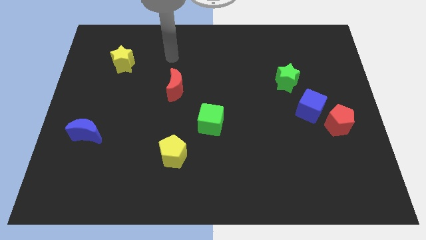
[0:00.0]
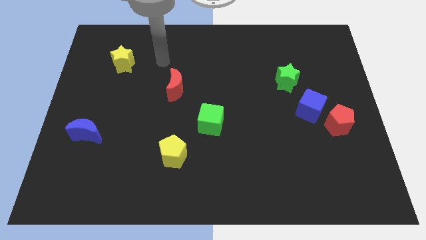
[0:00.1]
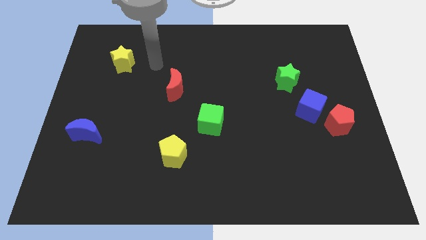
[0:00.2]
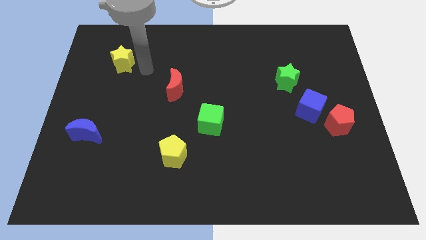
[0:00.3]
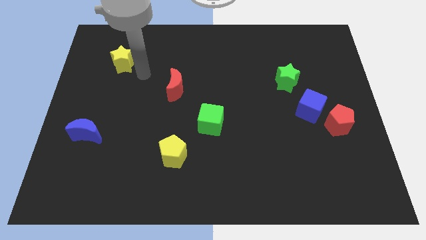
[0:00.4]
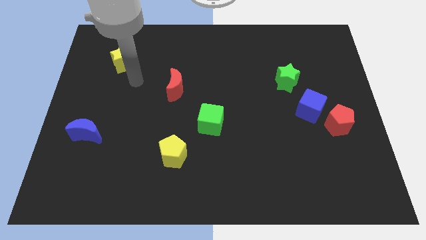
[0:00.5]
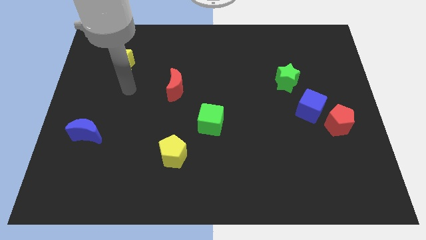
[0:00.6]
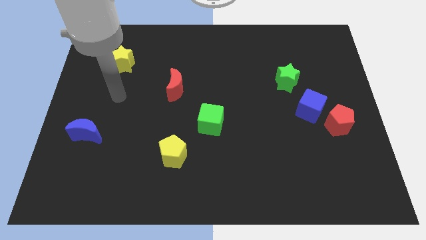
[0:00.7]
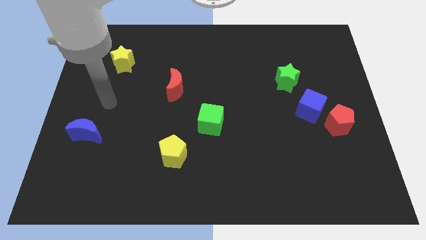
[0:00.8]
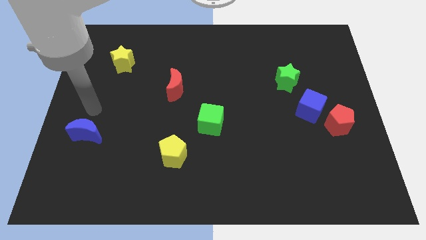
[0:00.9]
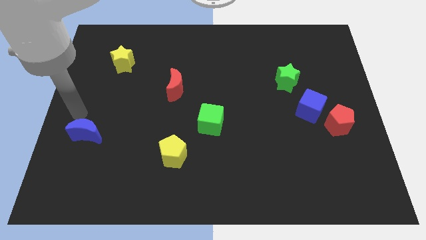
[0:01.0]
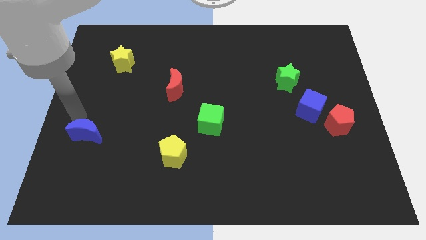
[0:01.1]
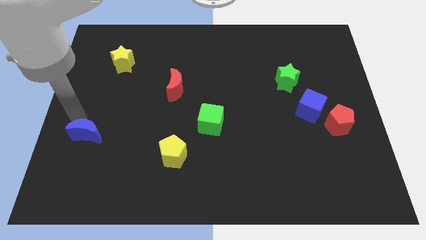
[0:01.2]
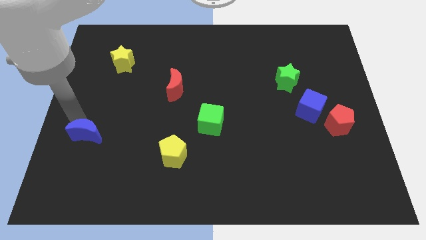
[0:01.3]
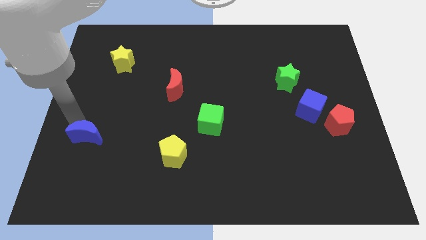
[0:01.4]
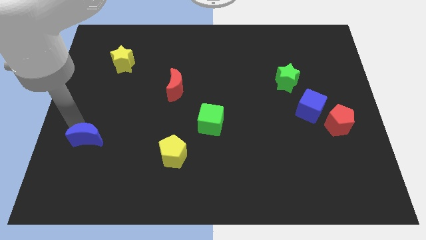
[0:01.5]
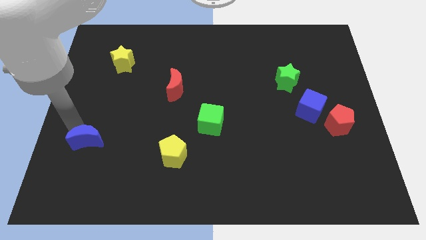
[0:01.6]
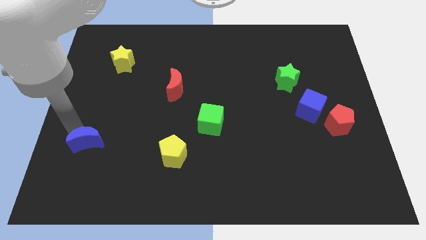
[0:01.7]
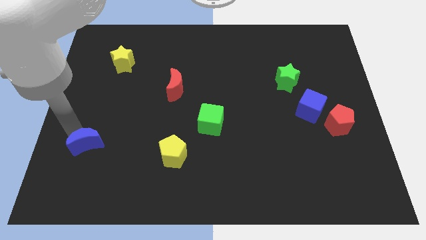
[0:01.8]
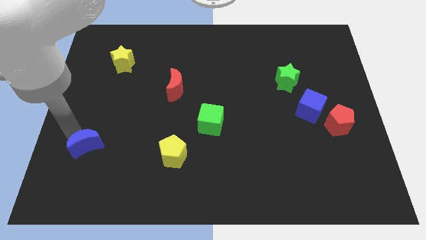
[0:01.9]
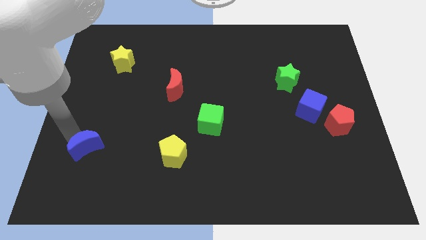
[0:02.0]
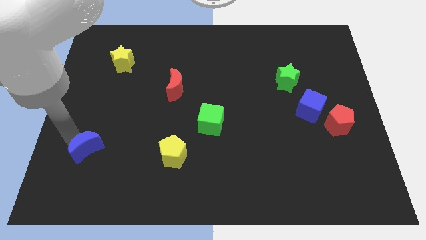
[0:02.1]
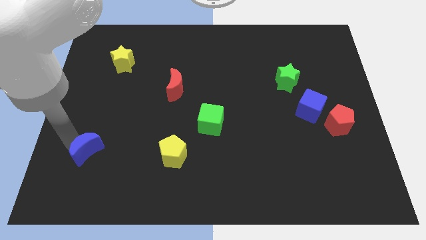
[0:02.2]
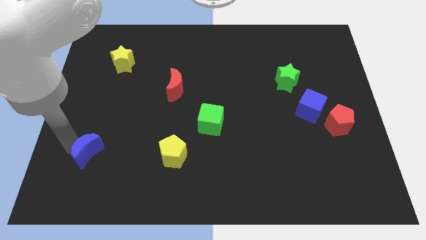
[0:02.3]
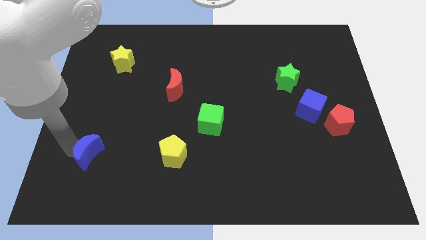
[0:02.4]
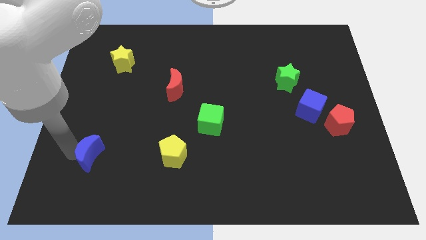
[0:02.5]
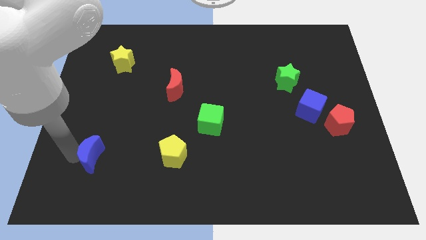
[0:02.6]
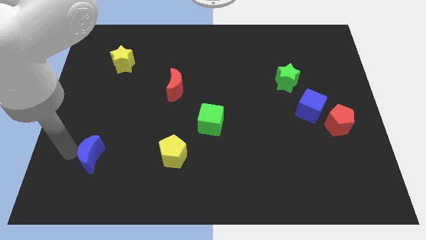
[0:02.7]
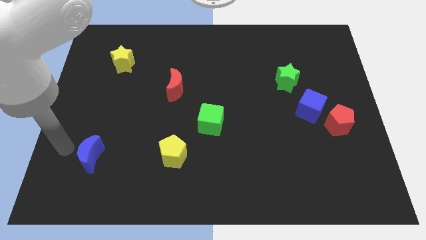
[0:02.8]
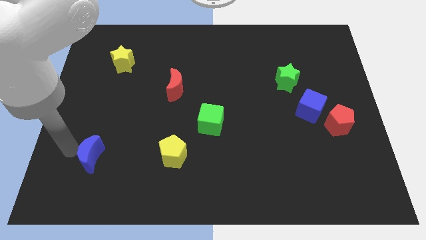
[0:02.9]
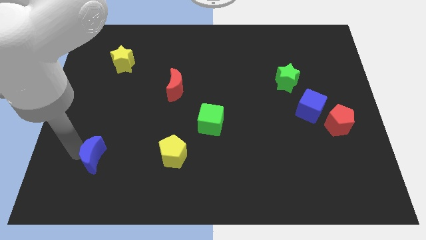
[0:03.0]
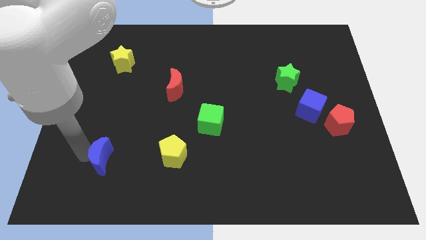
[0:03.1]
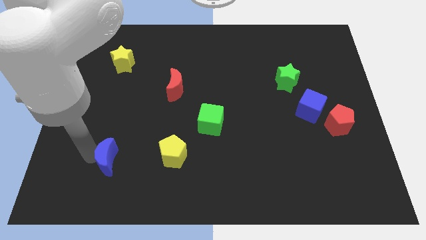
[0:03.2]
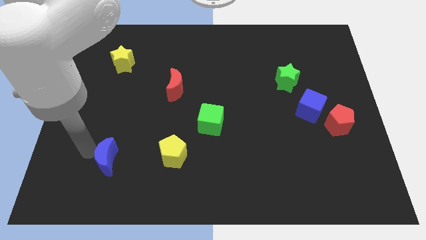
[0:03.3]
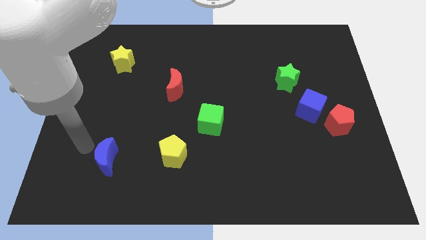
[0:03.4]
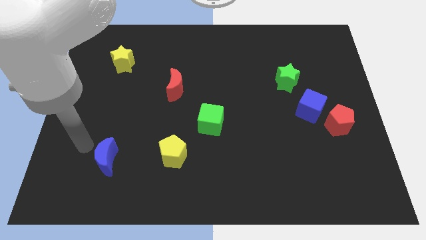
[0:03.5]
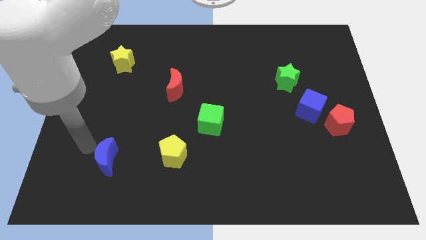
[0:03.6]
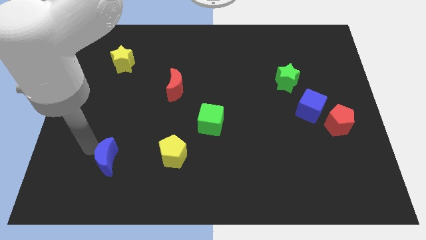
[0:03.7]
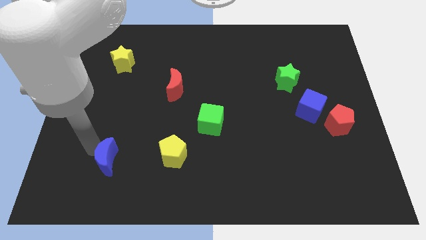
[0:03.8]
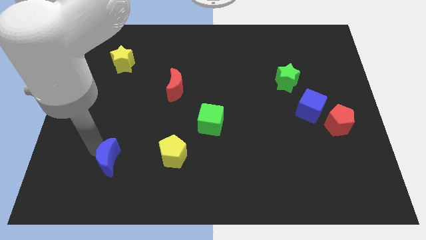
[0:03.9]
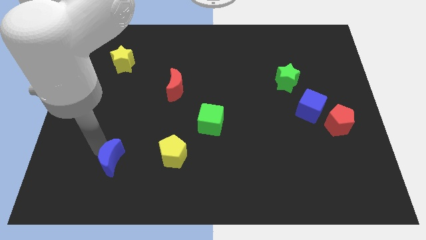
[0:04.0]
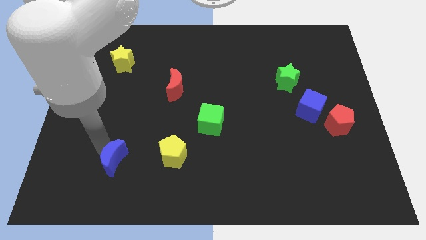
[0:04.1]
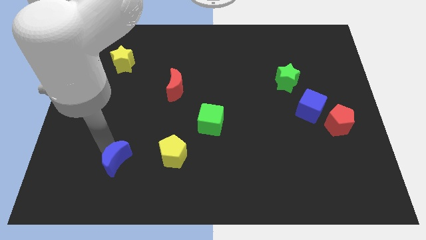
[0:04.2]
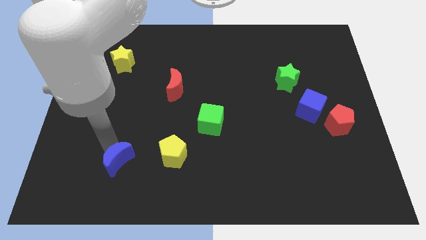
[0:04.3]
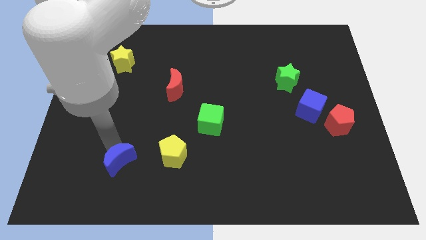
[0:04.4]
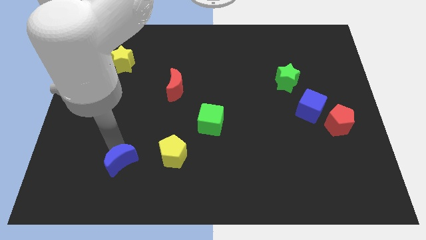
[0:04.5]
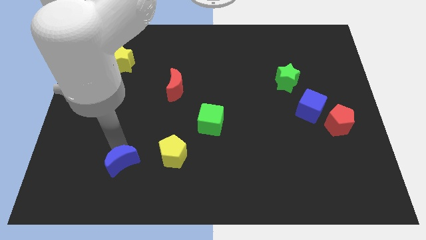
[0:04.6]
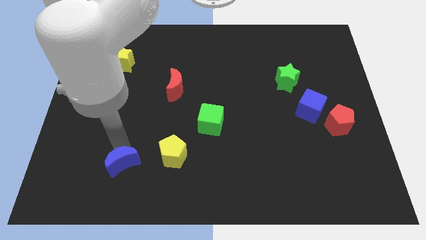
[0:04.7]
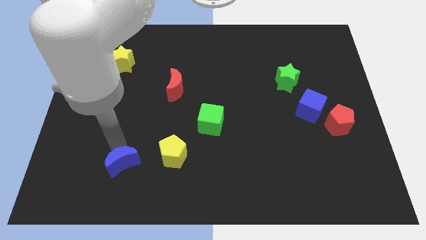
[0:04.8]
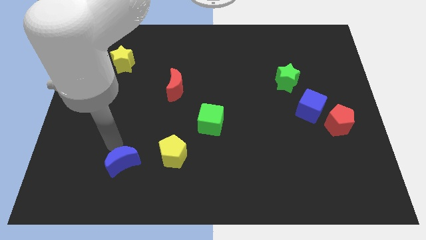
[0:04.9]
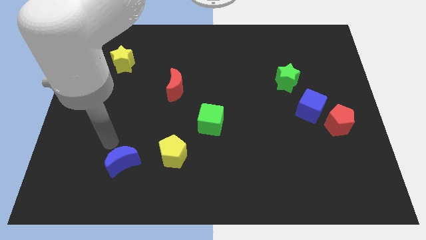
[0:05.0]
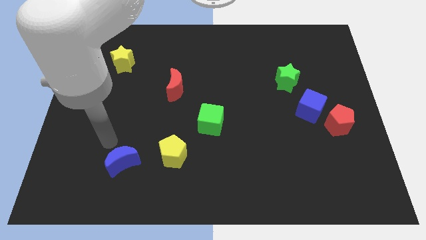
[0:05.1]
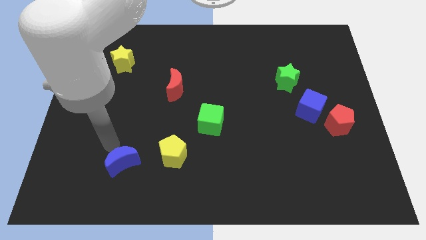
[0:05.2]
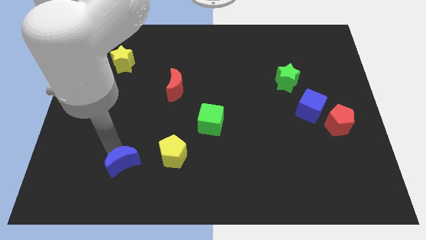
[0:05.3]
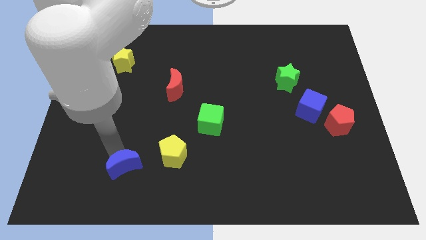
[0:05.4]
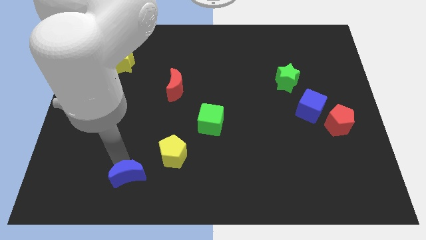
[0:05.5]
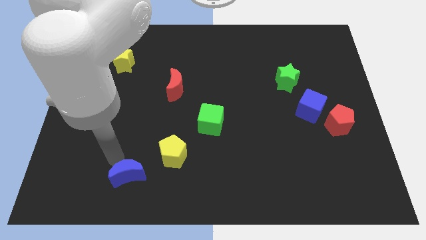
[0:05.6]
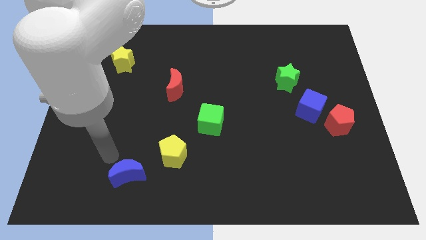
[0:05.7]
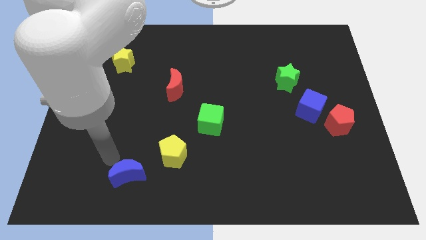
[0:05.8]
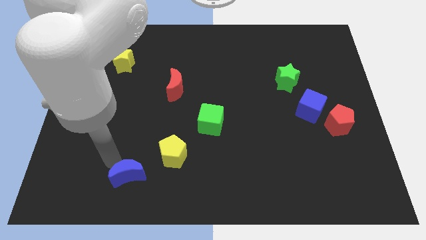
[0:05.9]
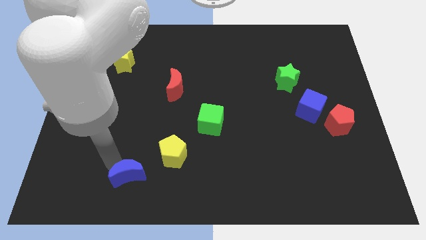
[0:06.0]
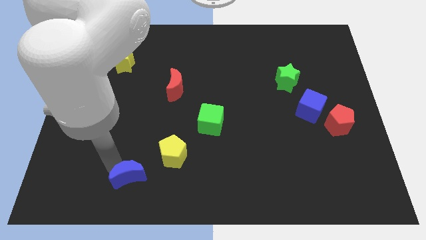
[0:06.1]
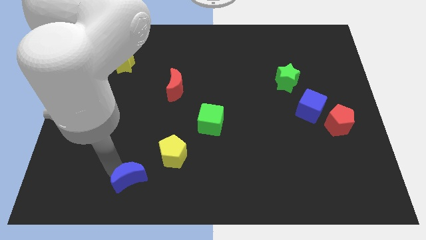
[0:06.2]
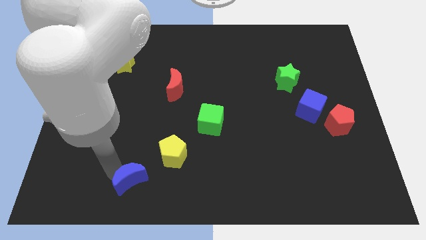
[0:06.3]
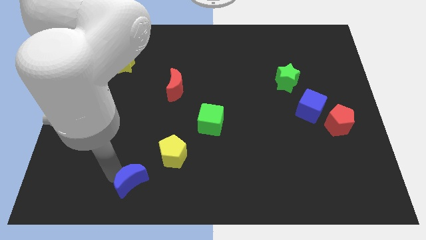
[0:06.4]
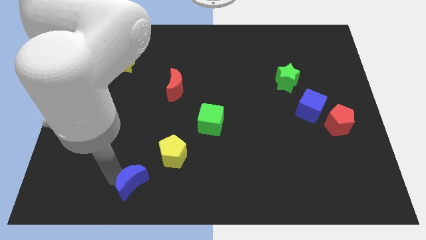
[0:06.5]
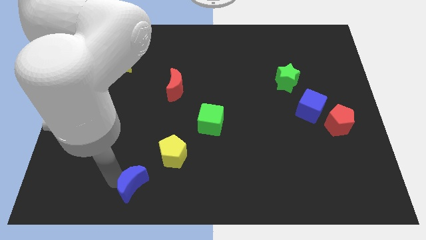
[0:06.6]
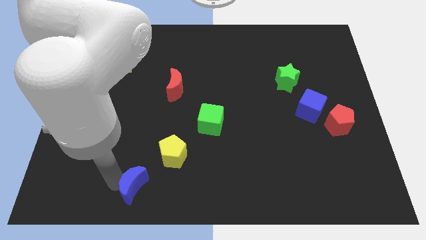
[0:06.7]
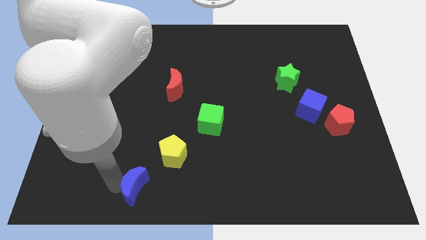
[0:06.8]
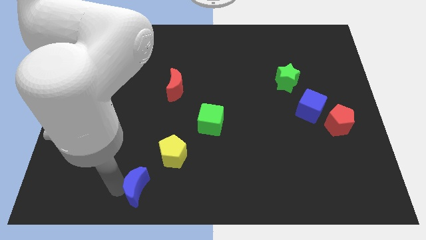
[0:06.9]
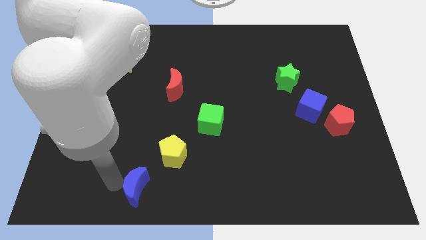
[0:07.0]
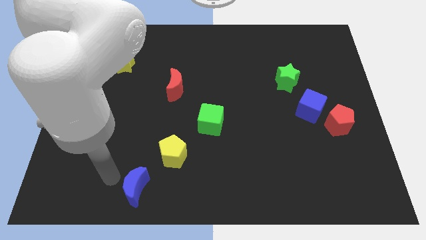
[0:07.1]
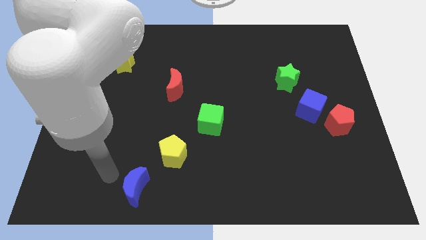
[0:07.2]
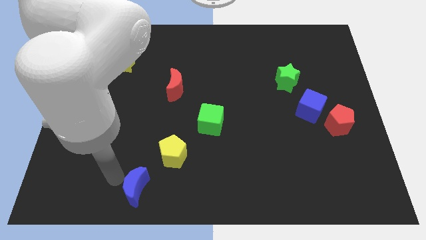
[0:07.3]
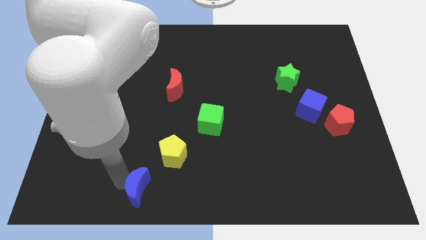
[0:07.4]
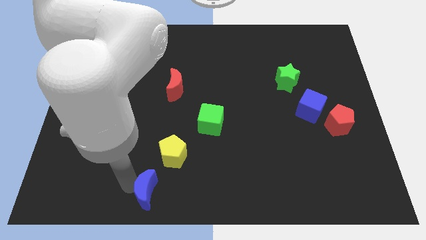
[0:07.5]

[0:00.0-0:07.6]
push the blue moon to the bottom side
